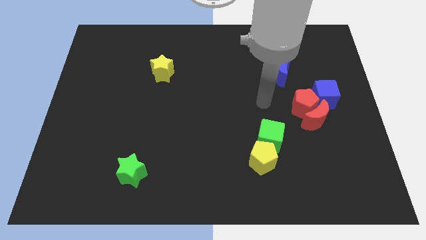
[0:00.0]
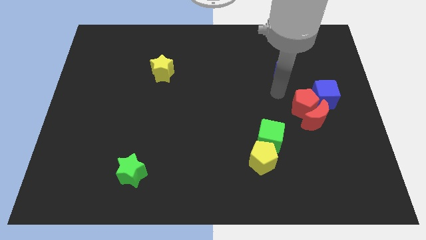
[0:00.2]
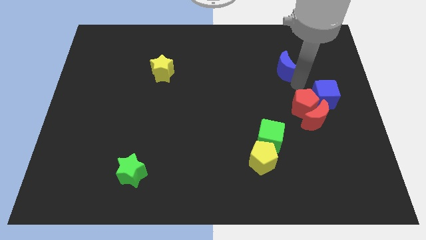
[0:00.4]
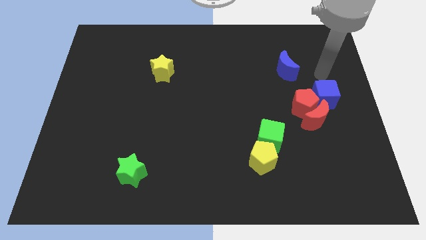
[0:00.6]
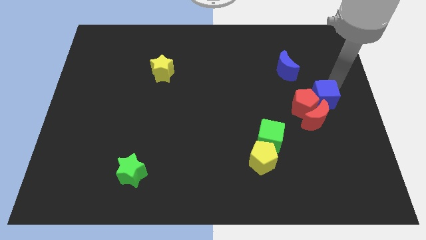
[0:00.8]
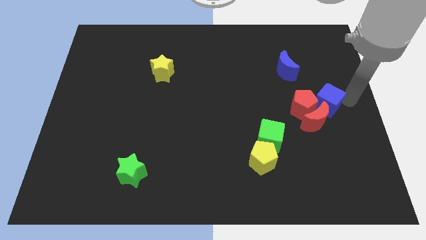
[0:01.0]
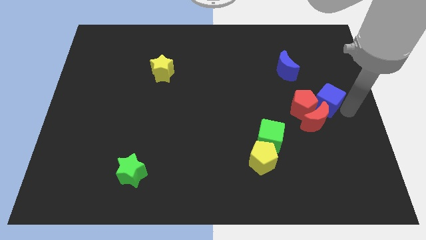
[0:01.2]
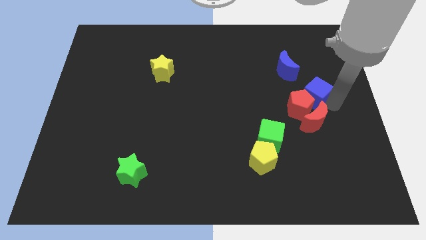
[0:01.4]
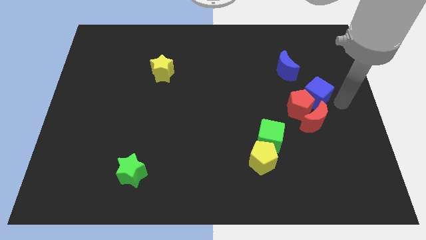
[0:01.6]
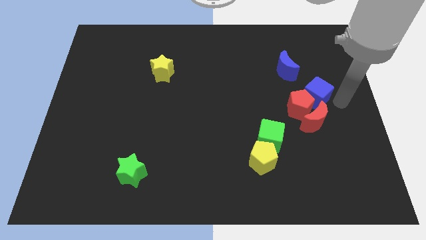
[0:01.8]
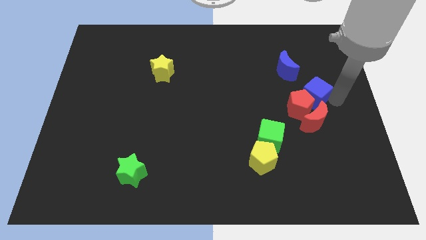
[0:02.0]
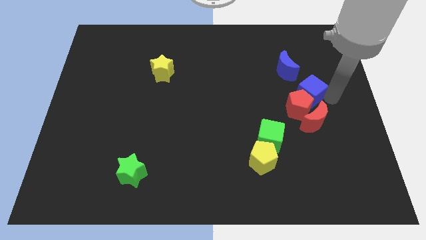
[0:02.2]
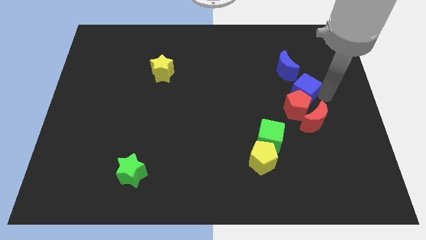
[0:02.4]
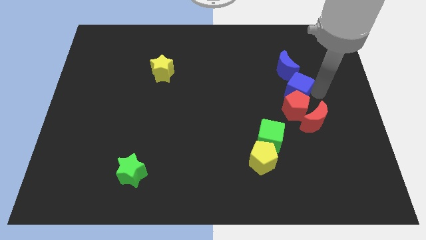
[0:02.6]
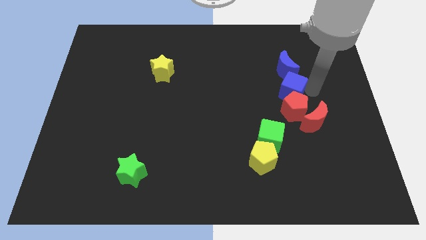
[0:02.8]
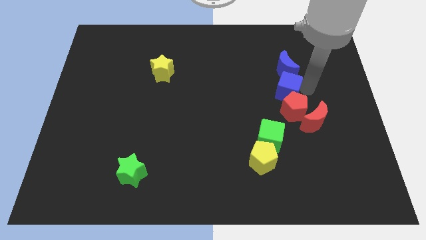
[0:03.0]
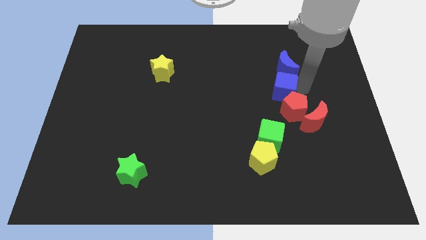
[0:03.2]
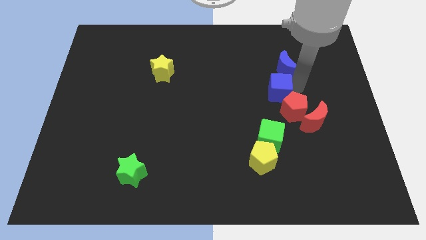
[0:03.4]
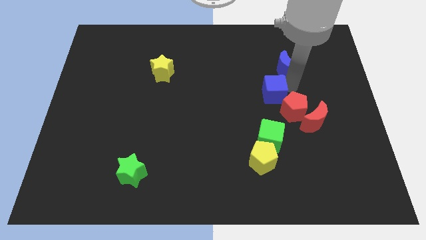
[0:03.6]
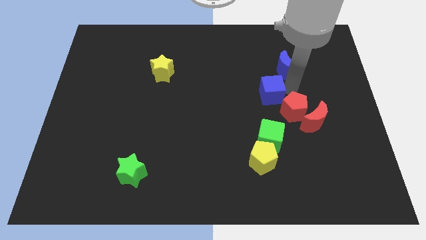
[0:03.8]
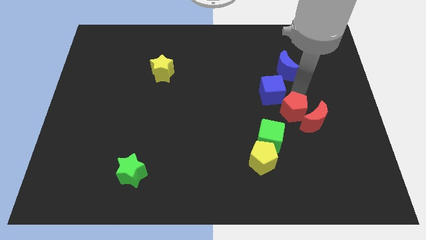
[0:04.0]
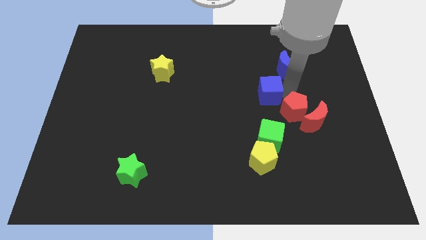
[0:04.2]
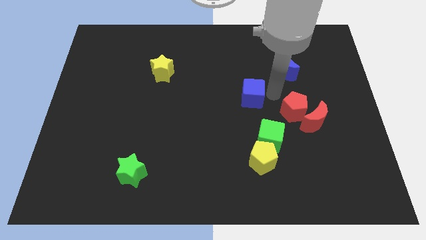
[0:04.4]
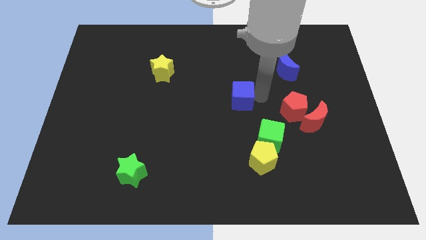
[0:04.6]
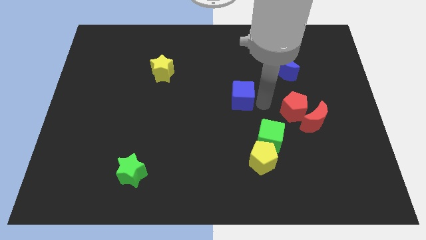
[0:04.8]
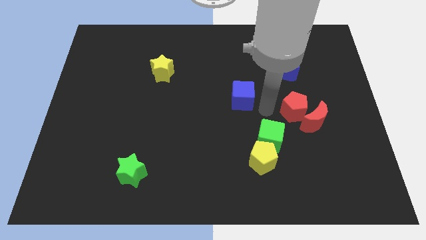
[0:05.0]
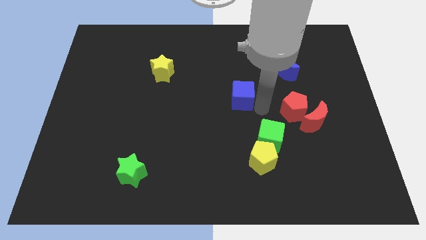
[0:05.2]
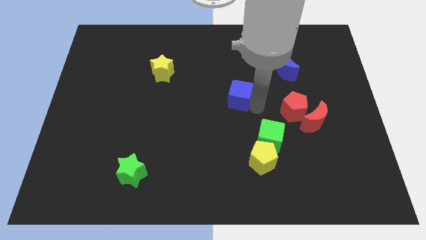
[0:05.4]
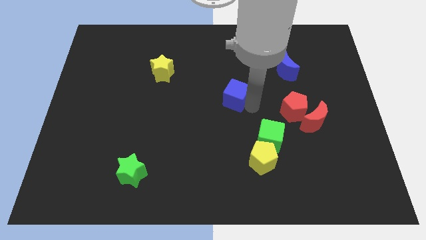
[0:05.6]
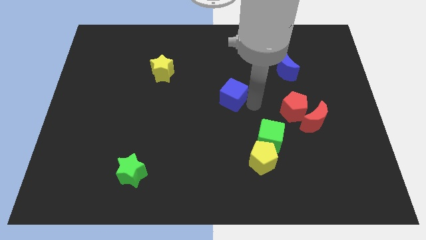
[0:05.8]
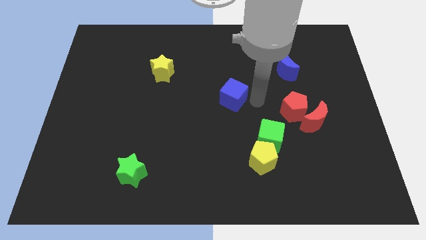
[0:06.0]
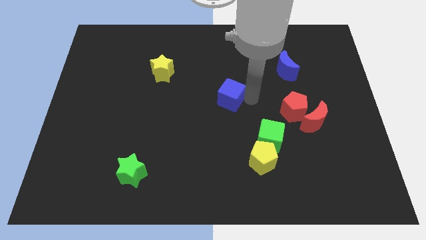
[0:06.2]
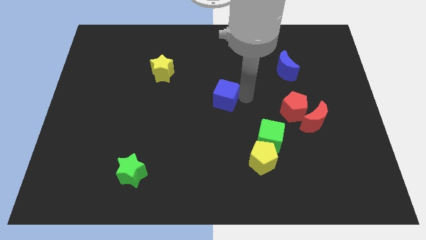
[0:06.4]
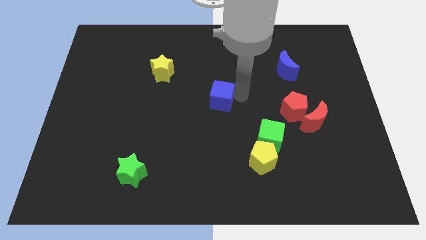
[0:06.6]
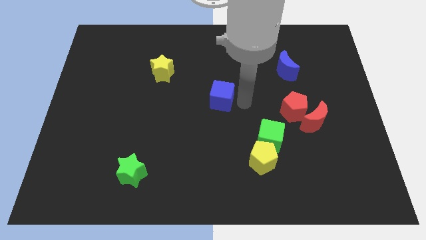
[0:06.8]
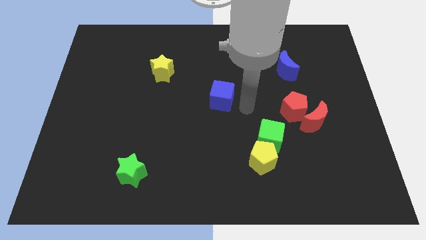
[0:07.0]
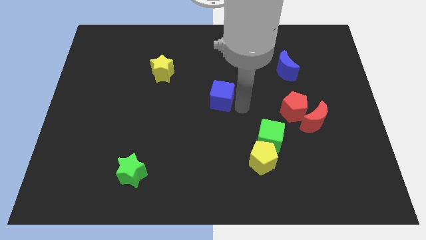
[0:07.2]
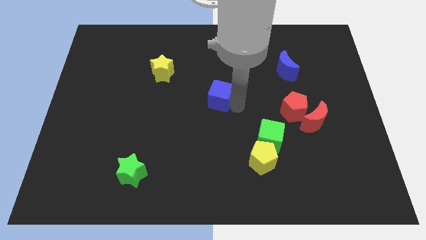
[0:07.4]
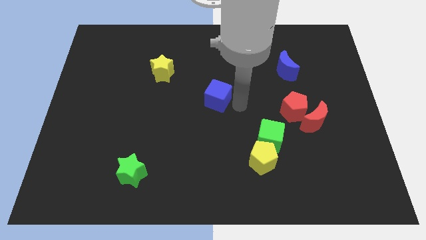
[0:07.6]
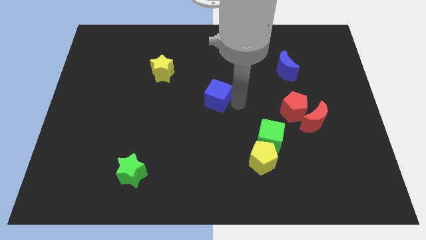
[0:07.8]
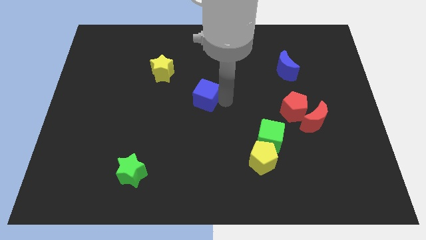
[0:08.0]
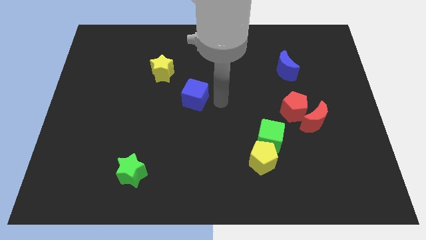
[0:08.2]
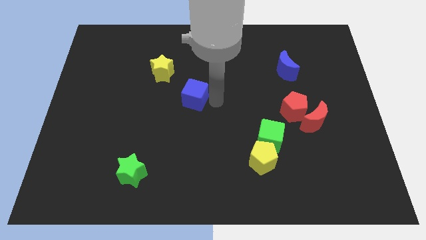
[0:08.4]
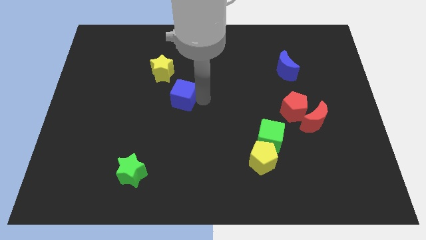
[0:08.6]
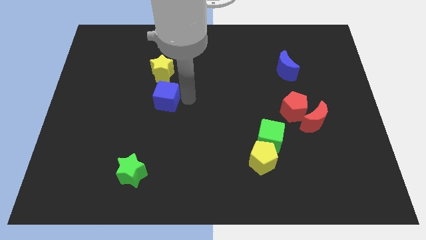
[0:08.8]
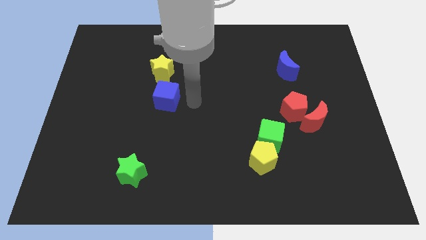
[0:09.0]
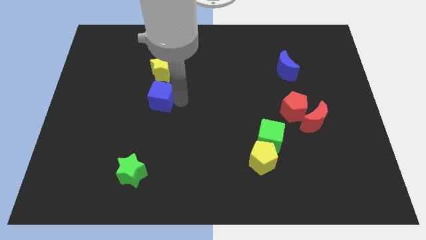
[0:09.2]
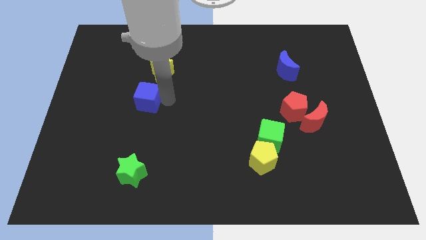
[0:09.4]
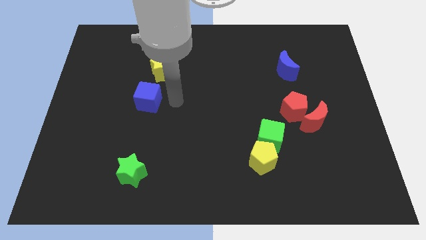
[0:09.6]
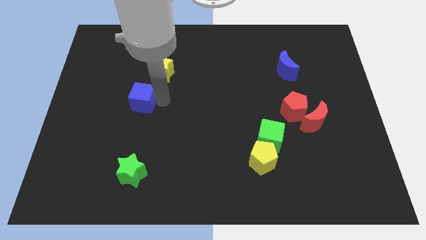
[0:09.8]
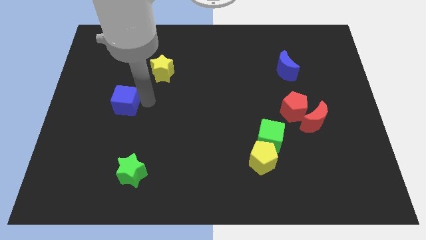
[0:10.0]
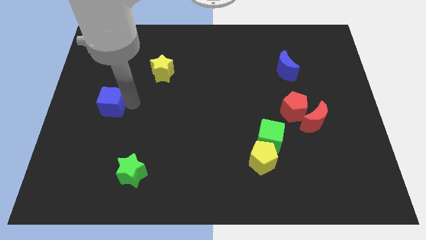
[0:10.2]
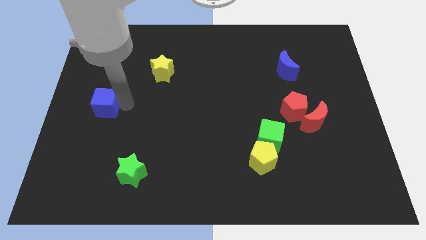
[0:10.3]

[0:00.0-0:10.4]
move the blue cube to the center left

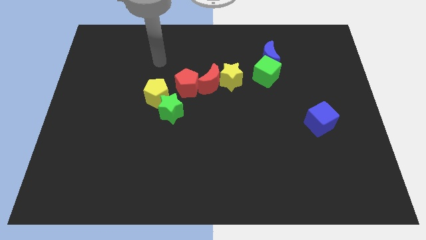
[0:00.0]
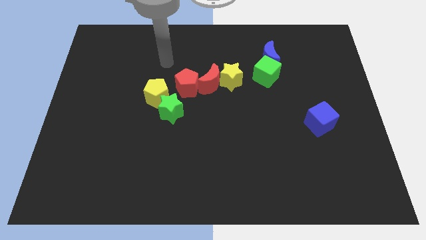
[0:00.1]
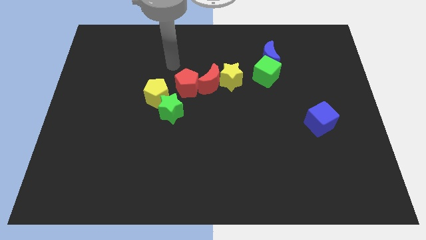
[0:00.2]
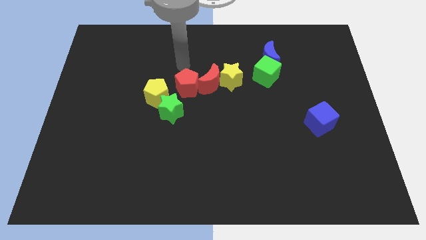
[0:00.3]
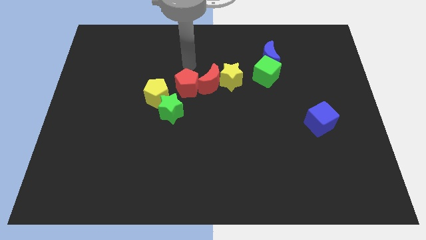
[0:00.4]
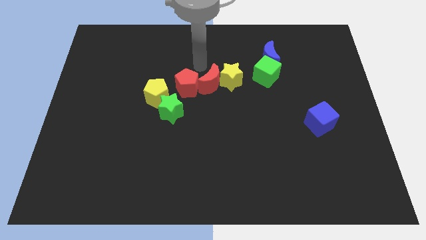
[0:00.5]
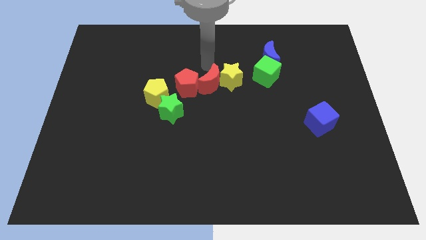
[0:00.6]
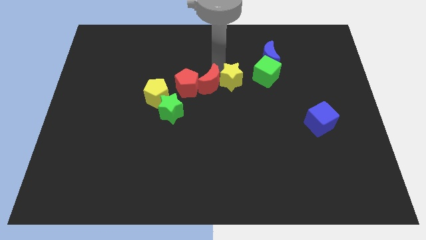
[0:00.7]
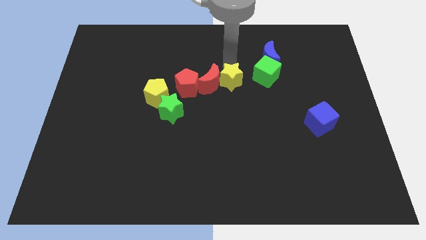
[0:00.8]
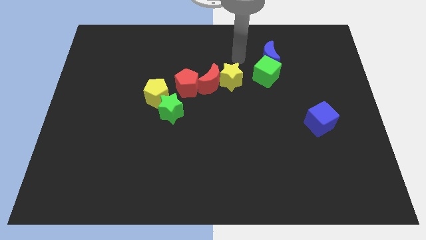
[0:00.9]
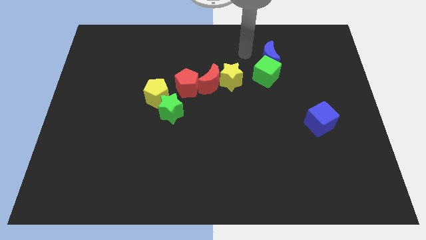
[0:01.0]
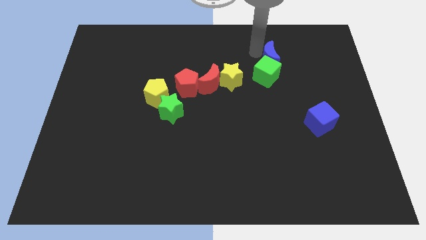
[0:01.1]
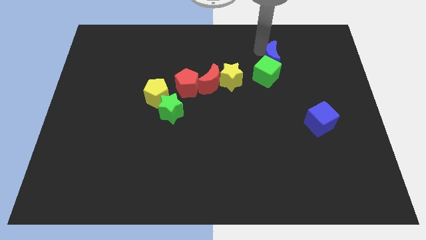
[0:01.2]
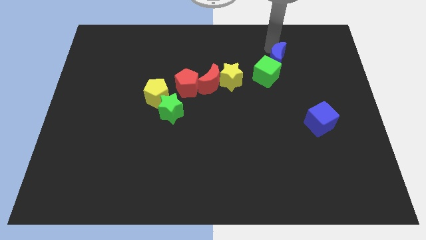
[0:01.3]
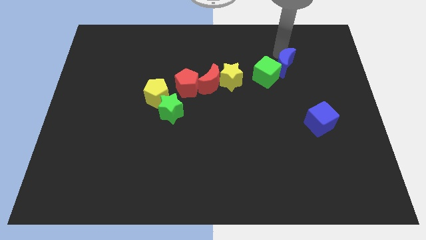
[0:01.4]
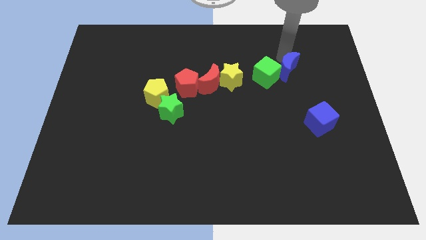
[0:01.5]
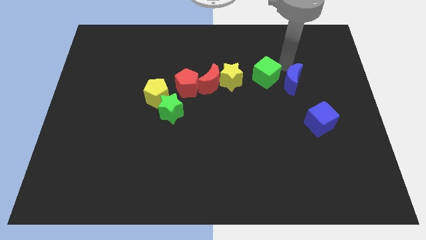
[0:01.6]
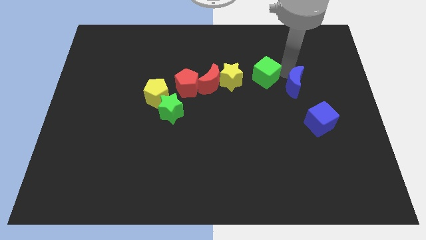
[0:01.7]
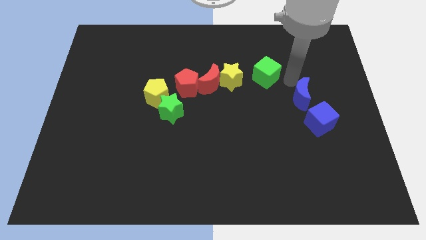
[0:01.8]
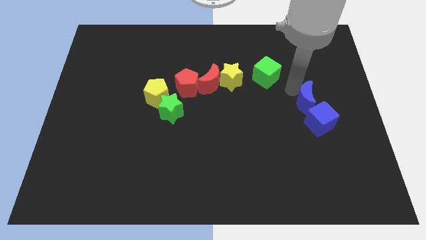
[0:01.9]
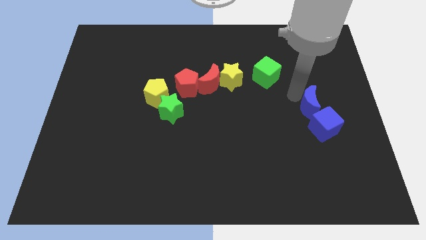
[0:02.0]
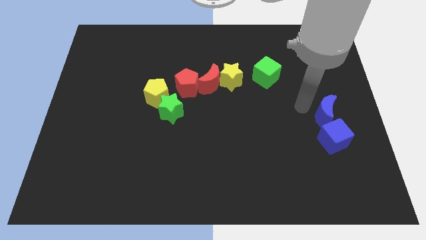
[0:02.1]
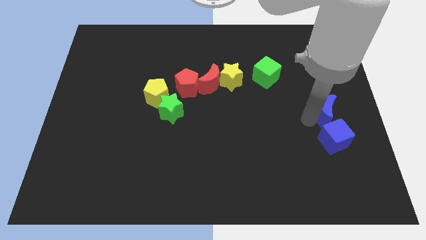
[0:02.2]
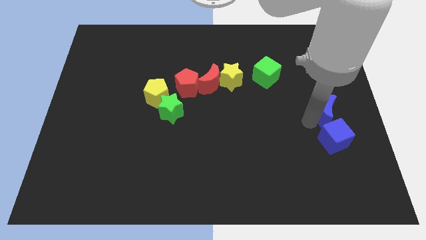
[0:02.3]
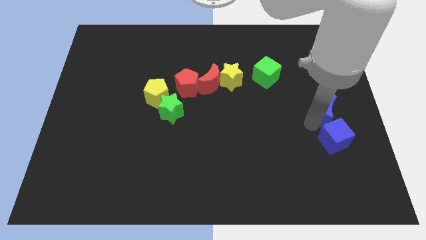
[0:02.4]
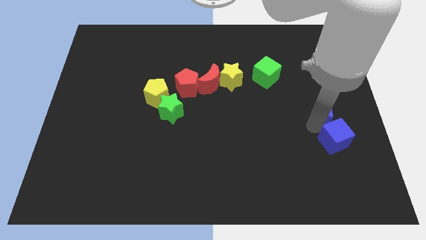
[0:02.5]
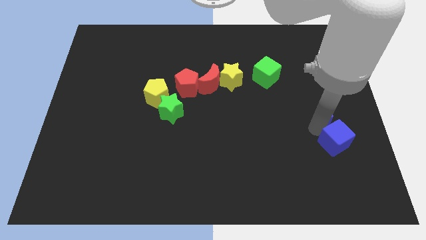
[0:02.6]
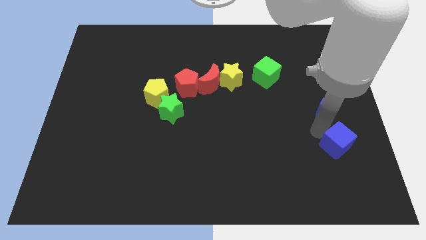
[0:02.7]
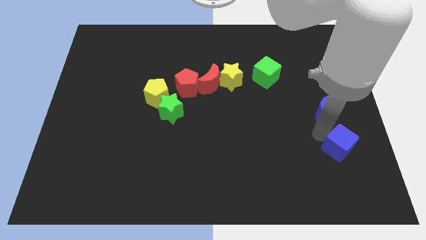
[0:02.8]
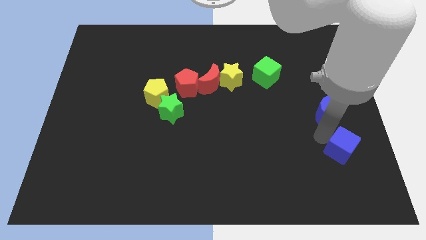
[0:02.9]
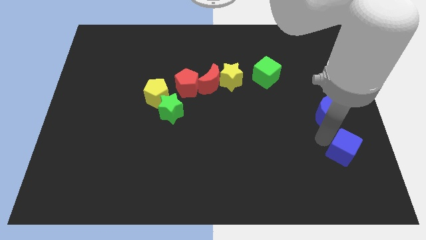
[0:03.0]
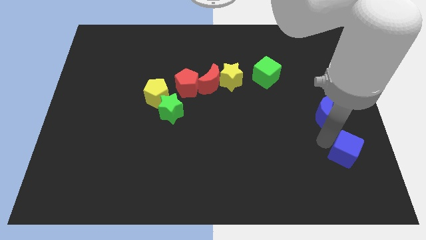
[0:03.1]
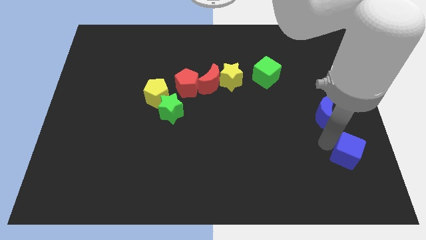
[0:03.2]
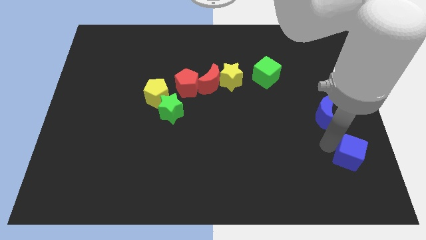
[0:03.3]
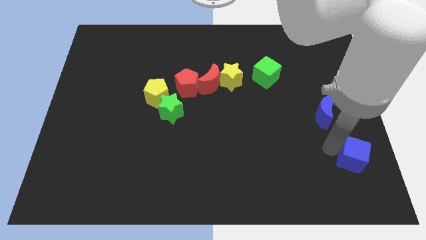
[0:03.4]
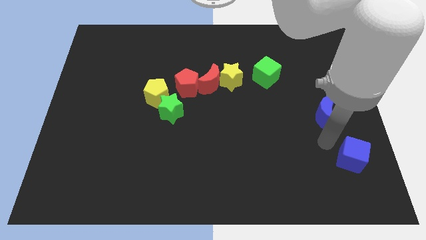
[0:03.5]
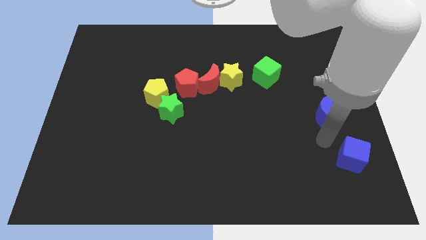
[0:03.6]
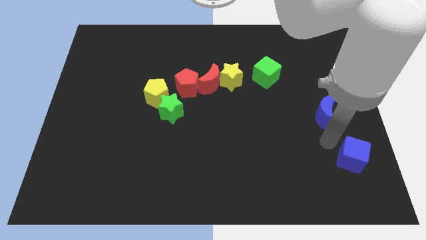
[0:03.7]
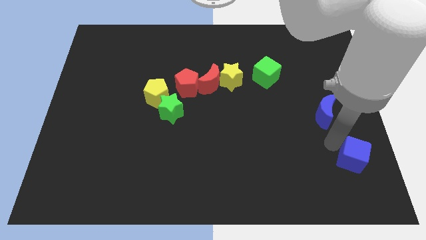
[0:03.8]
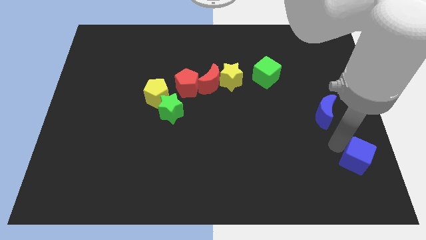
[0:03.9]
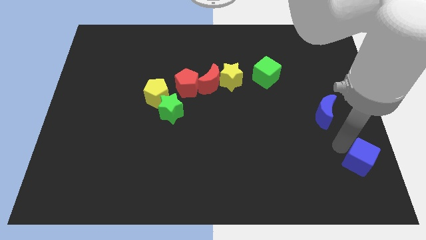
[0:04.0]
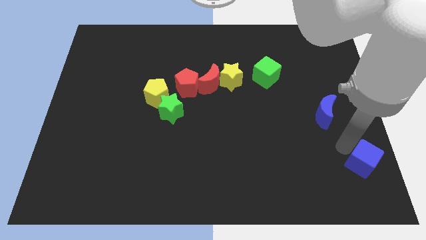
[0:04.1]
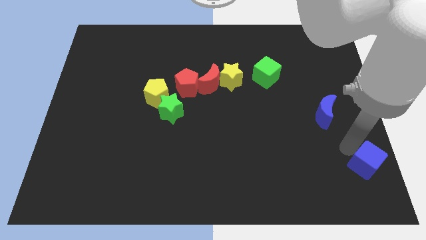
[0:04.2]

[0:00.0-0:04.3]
push the blue cube to the bottom right corner
